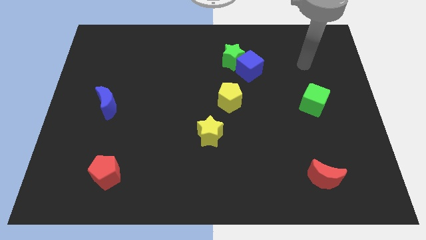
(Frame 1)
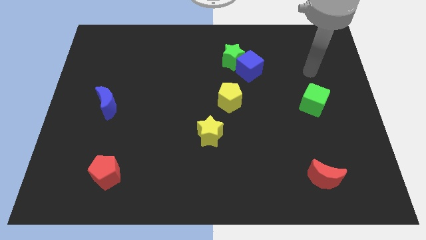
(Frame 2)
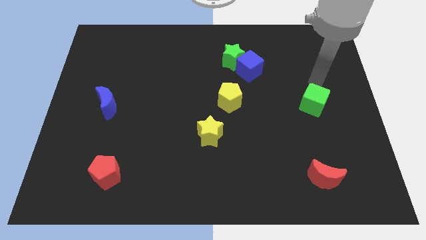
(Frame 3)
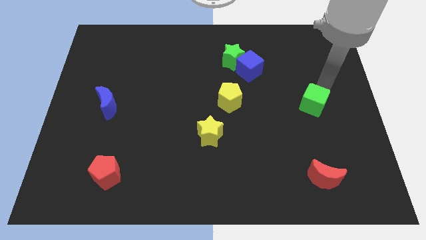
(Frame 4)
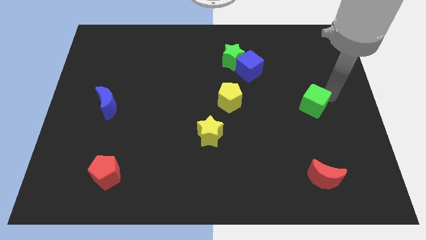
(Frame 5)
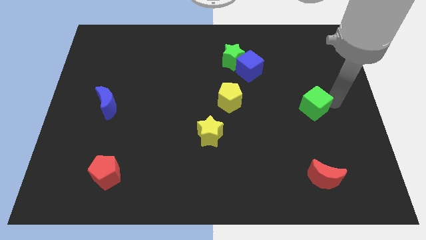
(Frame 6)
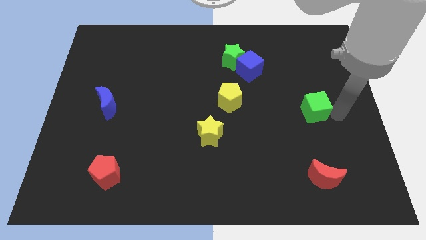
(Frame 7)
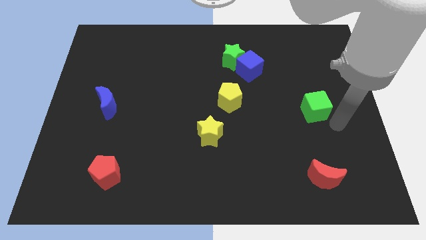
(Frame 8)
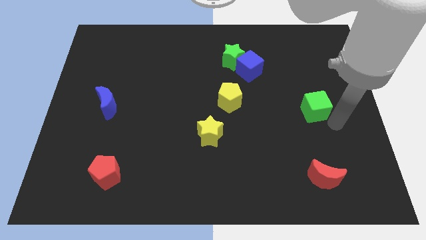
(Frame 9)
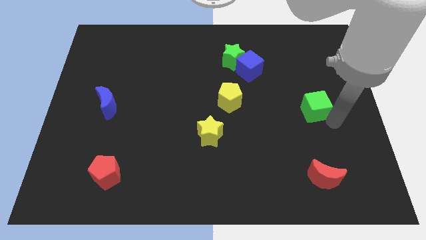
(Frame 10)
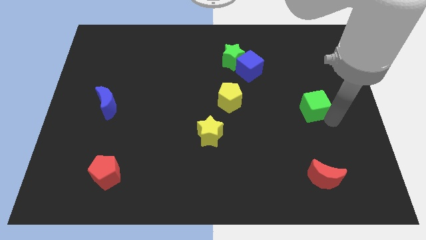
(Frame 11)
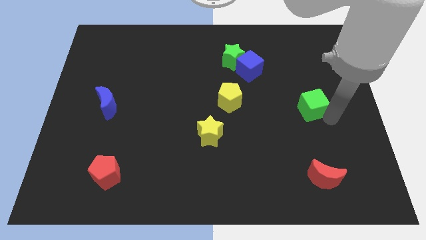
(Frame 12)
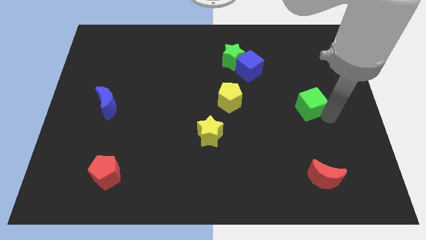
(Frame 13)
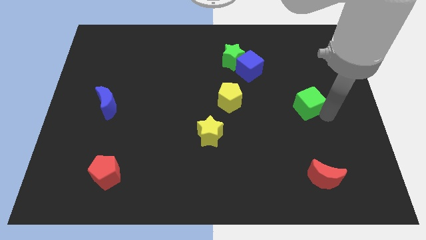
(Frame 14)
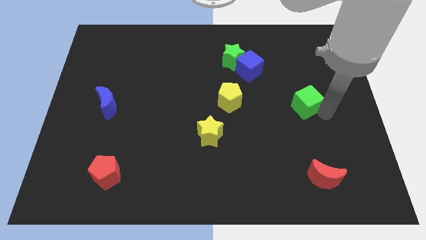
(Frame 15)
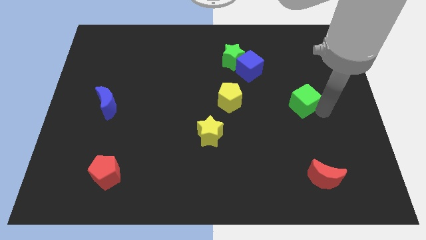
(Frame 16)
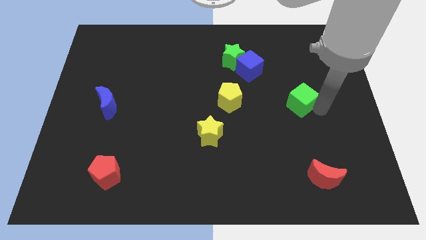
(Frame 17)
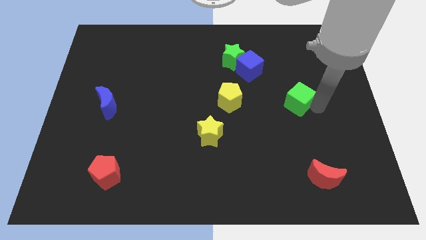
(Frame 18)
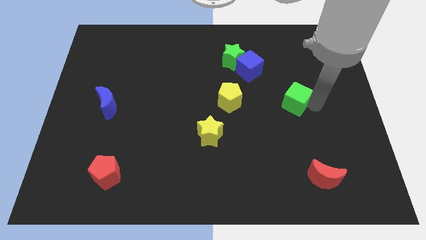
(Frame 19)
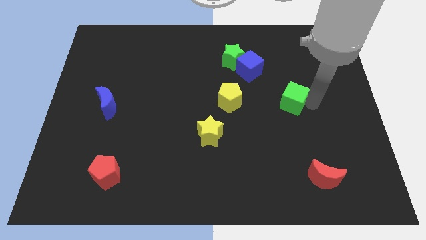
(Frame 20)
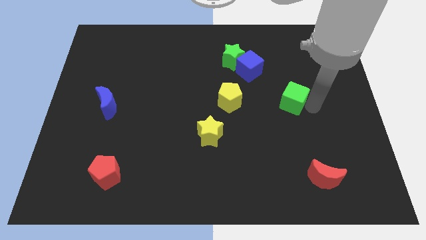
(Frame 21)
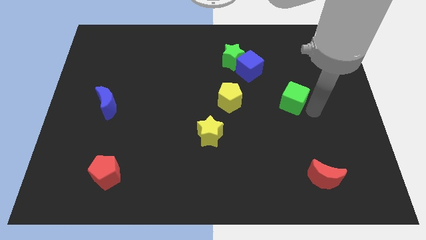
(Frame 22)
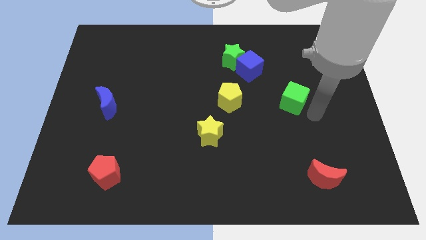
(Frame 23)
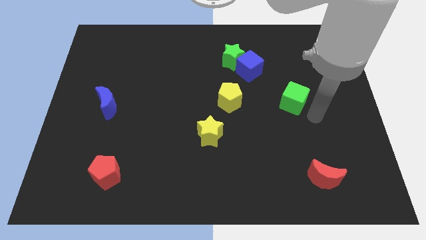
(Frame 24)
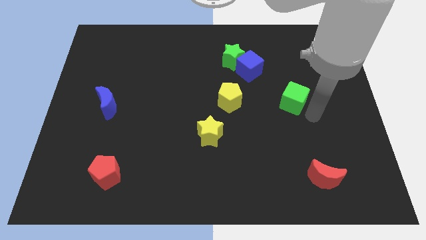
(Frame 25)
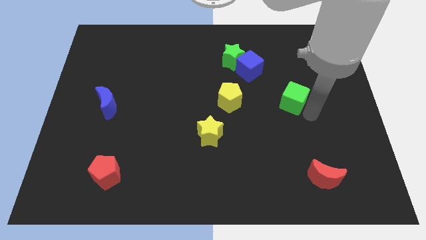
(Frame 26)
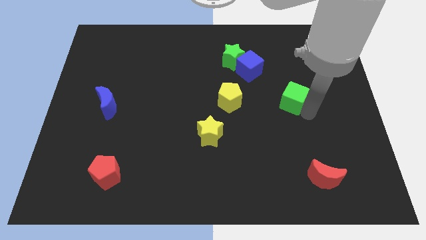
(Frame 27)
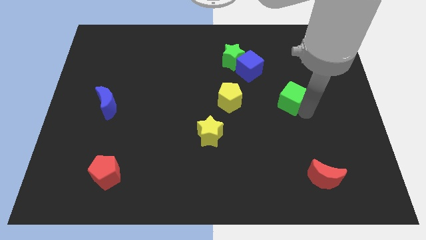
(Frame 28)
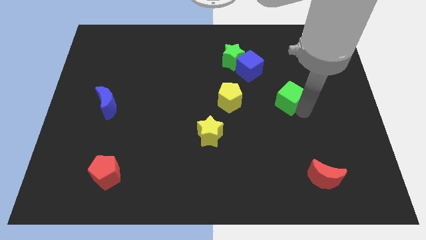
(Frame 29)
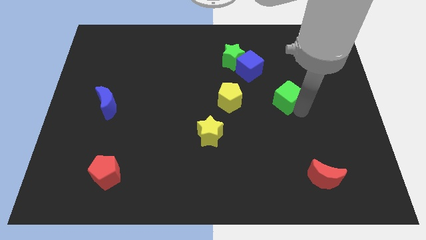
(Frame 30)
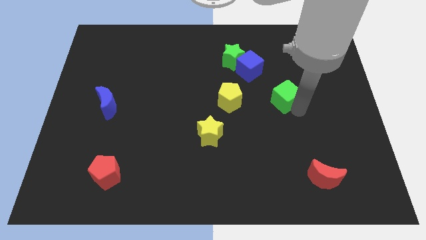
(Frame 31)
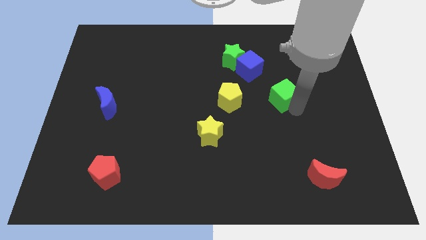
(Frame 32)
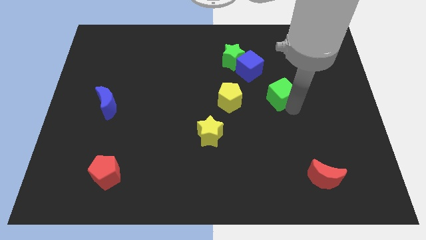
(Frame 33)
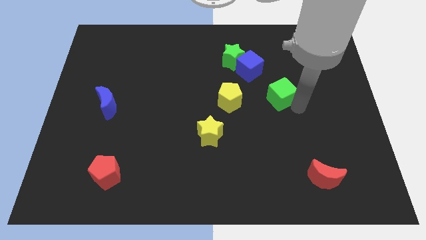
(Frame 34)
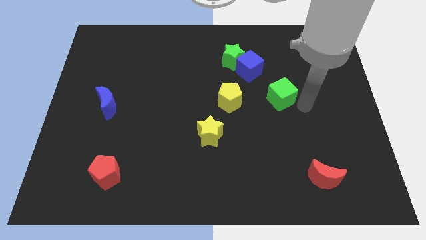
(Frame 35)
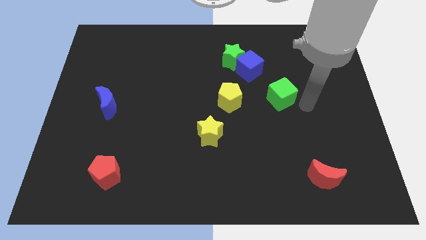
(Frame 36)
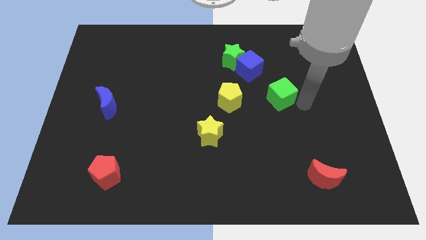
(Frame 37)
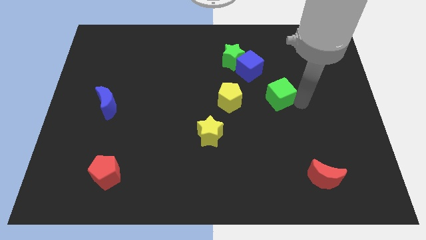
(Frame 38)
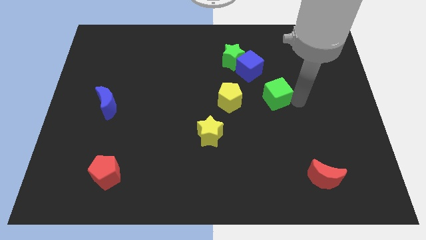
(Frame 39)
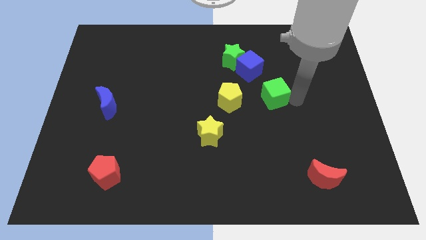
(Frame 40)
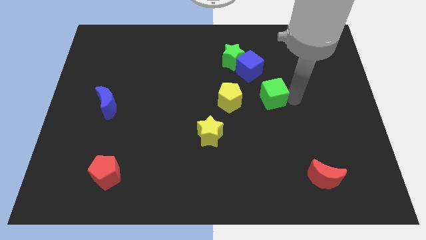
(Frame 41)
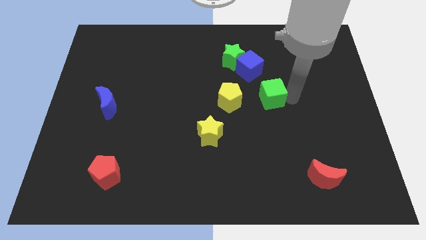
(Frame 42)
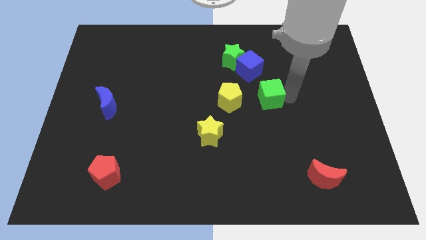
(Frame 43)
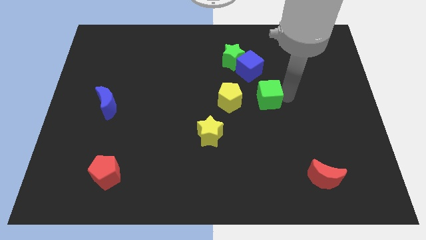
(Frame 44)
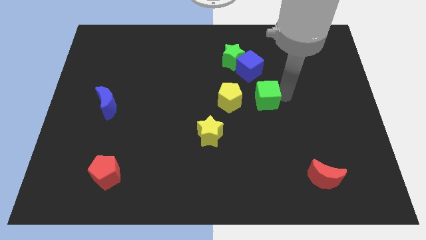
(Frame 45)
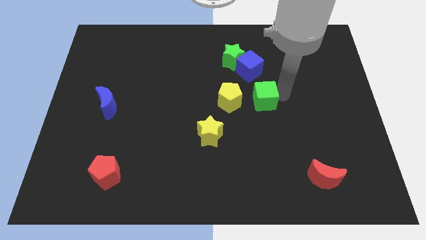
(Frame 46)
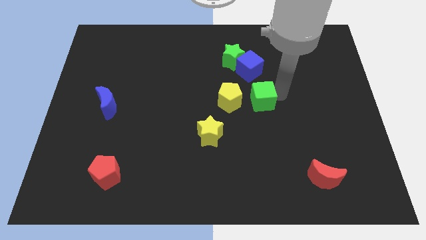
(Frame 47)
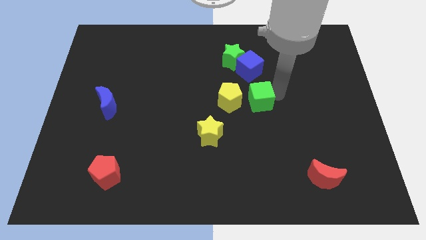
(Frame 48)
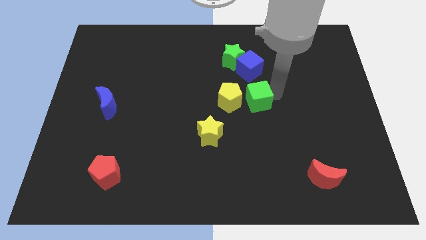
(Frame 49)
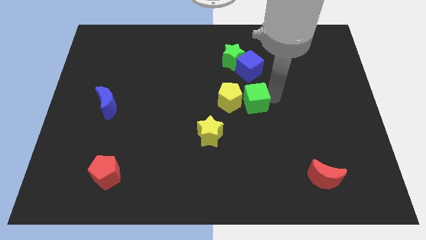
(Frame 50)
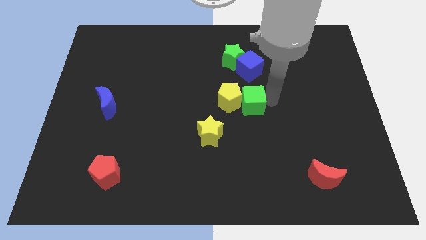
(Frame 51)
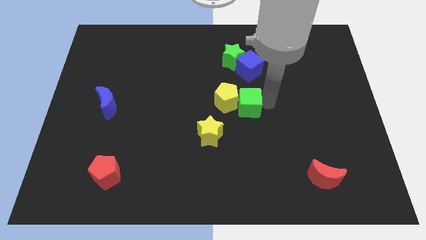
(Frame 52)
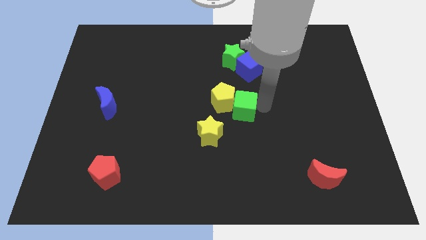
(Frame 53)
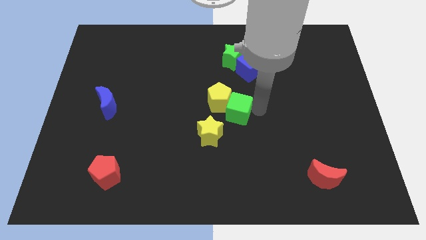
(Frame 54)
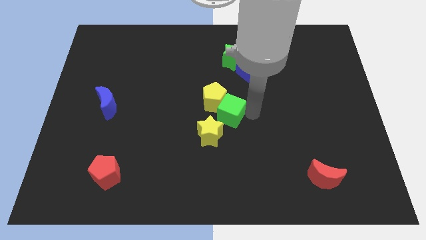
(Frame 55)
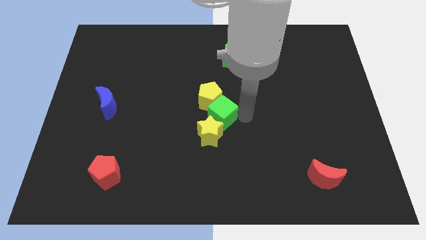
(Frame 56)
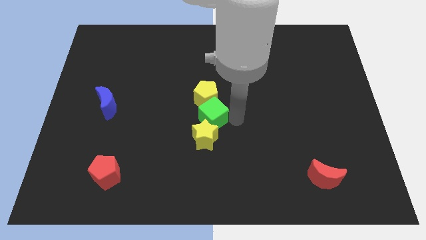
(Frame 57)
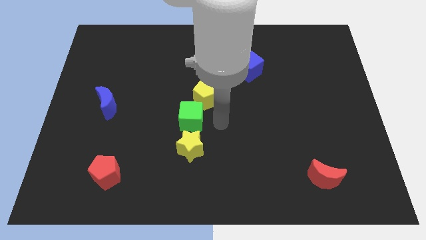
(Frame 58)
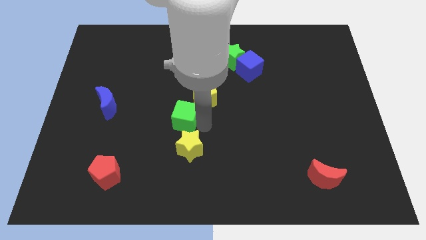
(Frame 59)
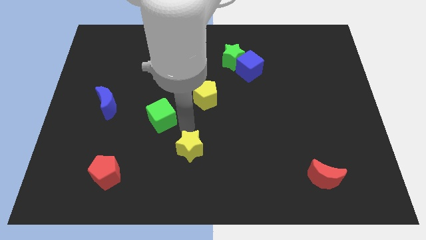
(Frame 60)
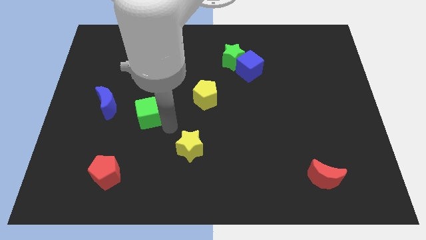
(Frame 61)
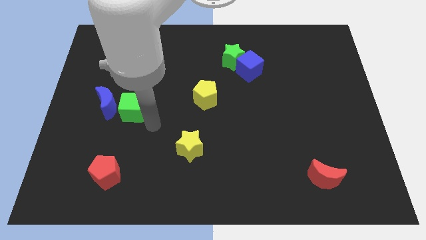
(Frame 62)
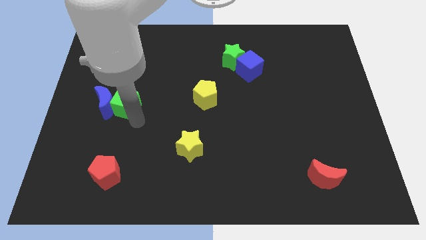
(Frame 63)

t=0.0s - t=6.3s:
slide the green cube to the top right side of the blue moon

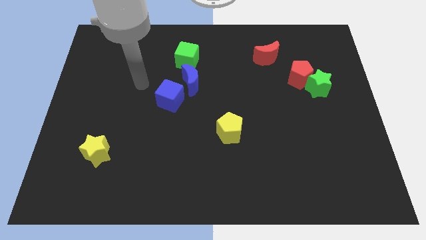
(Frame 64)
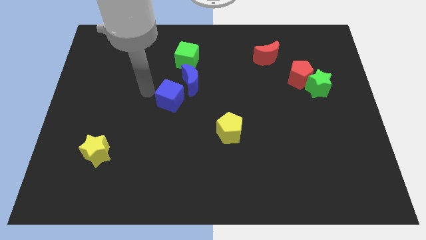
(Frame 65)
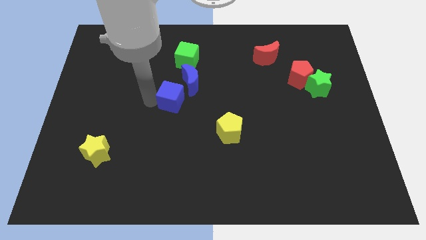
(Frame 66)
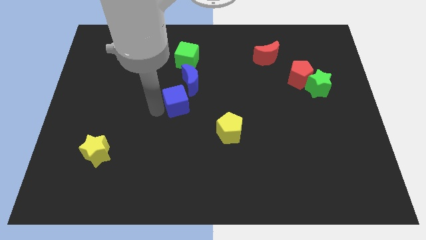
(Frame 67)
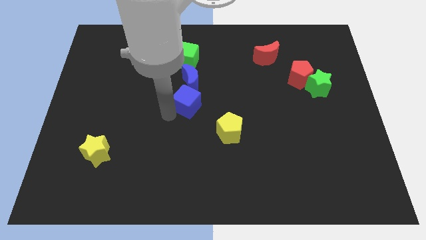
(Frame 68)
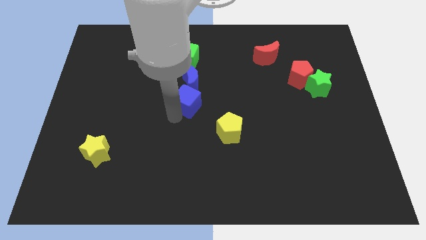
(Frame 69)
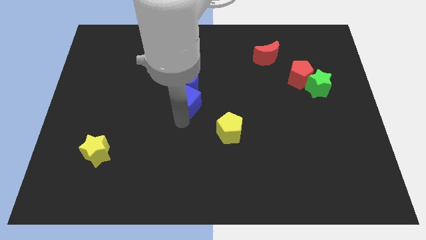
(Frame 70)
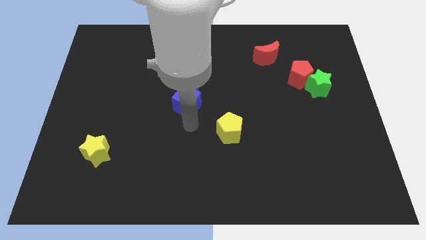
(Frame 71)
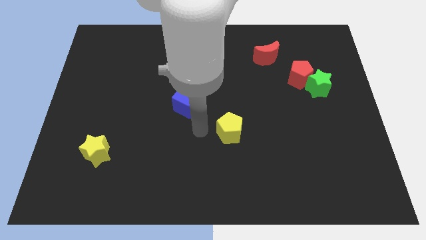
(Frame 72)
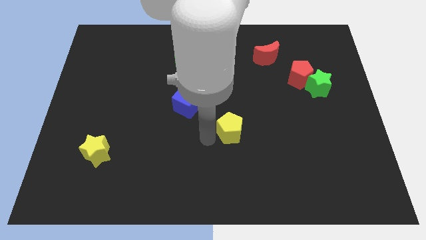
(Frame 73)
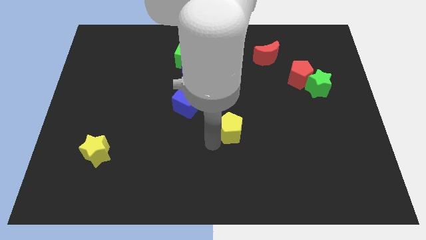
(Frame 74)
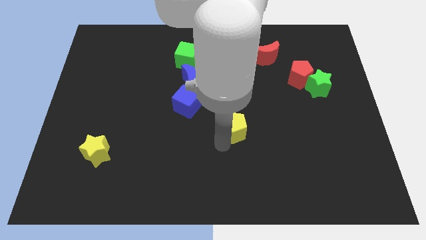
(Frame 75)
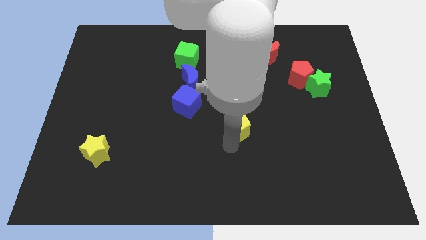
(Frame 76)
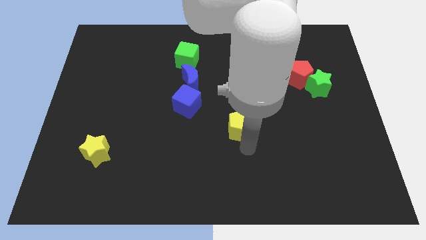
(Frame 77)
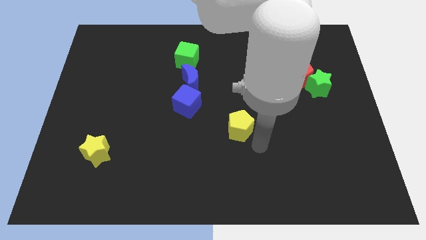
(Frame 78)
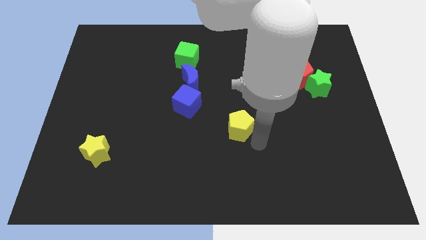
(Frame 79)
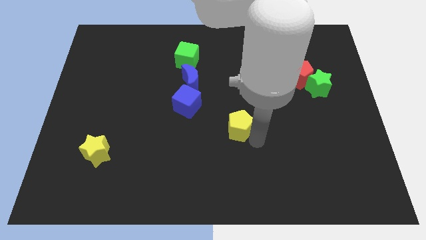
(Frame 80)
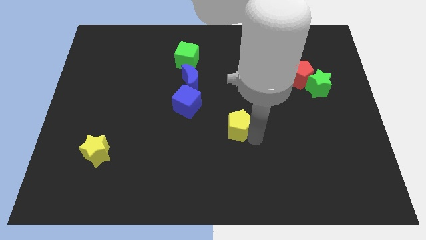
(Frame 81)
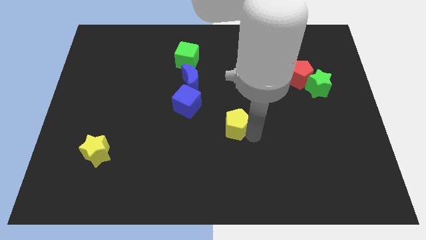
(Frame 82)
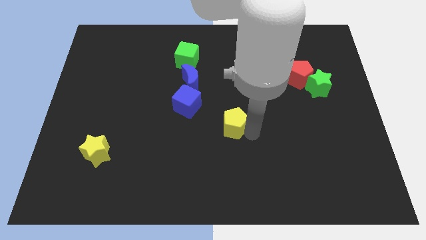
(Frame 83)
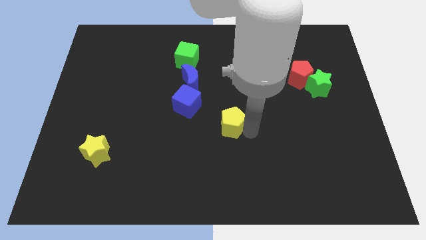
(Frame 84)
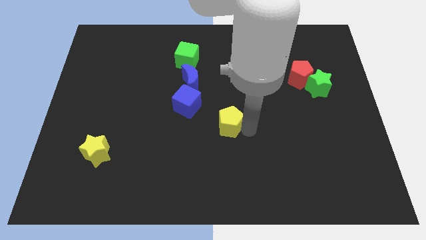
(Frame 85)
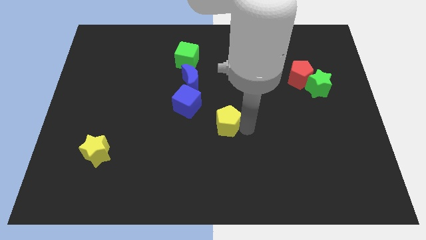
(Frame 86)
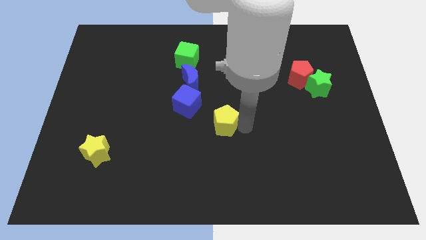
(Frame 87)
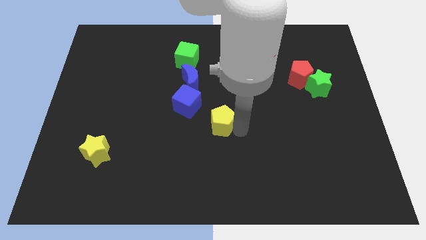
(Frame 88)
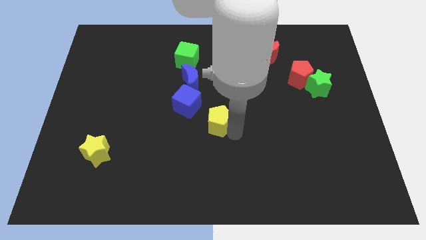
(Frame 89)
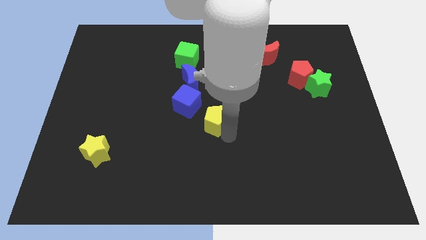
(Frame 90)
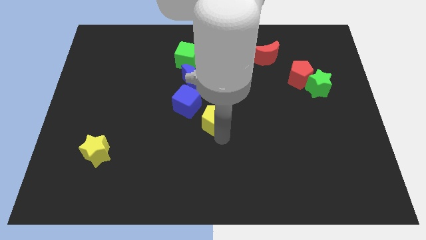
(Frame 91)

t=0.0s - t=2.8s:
move the yellow pentagon just right of the blue cube
